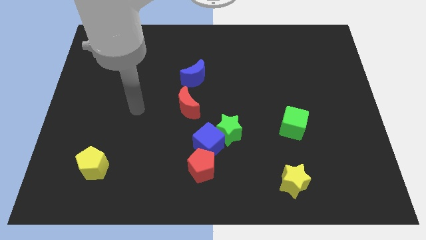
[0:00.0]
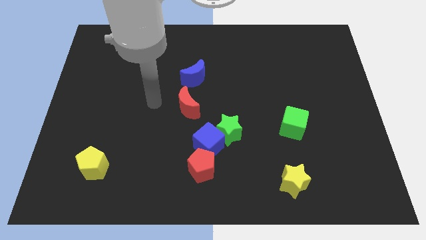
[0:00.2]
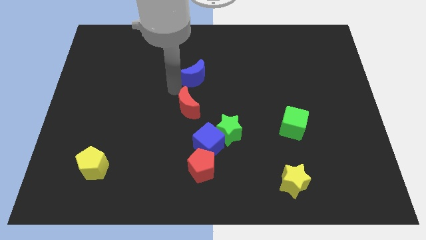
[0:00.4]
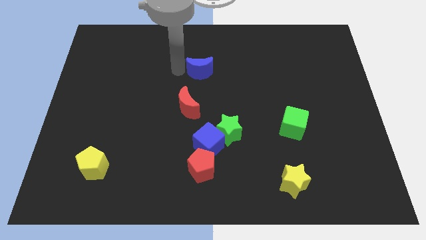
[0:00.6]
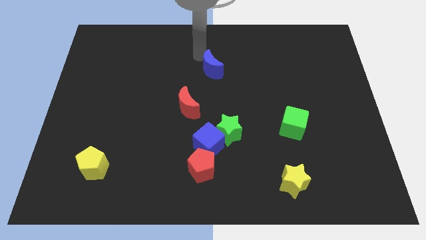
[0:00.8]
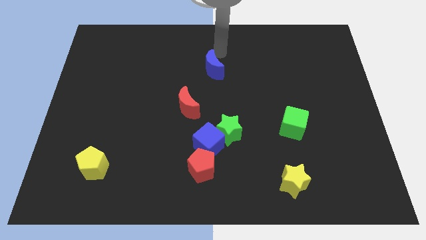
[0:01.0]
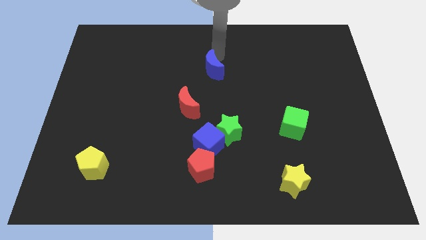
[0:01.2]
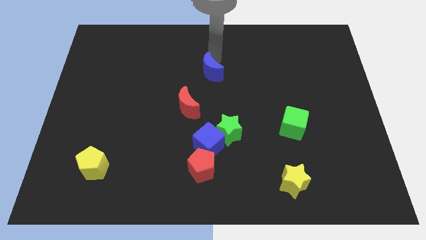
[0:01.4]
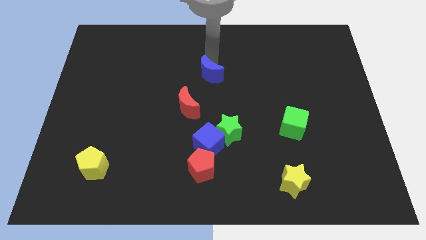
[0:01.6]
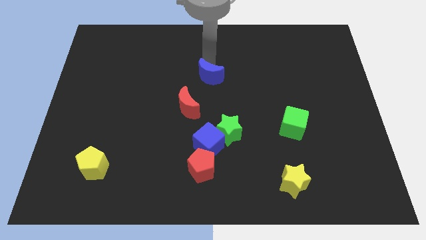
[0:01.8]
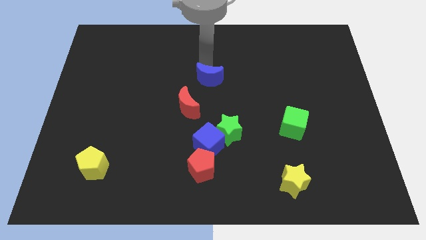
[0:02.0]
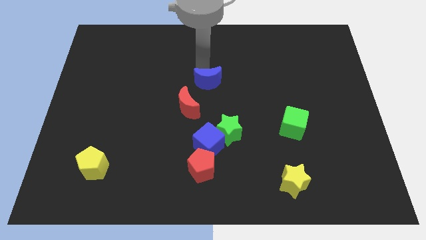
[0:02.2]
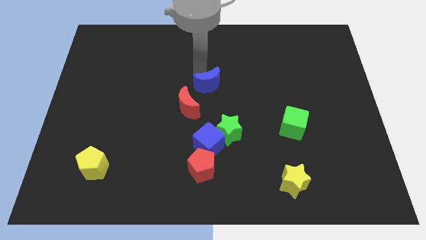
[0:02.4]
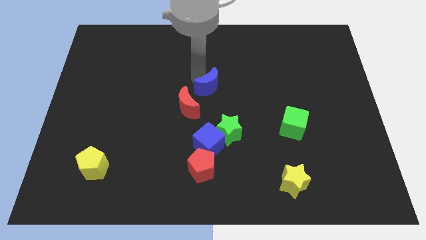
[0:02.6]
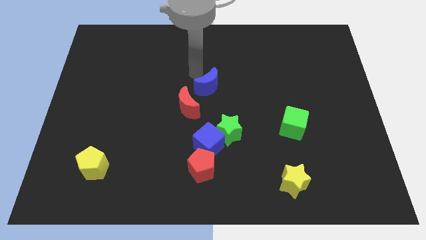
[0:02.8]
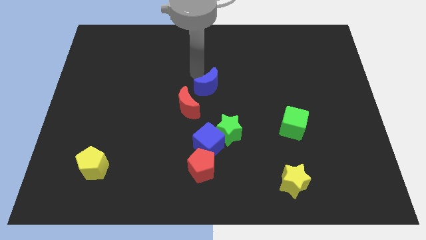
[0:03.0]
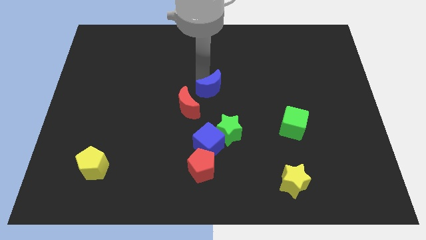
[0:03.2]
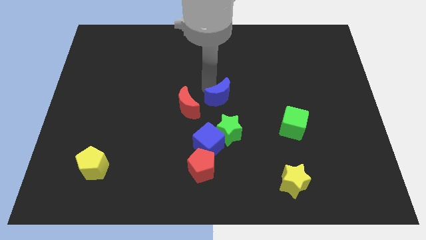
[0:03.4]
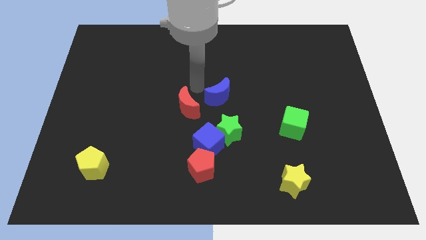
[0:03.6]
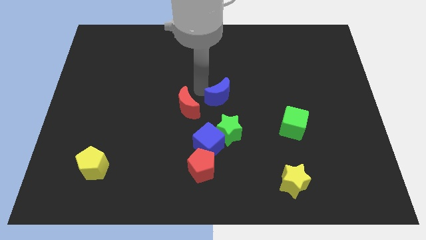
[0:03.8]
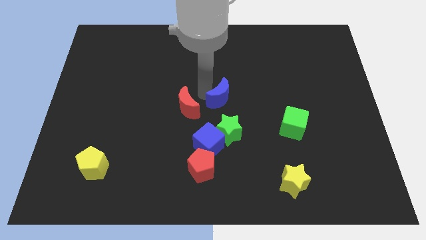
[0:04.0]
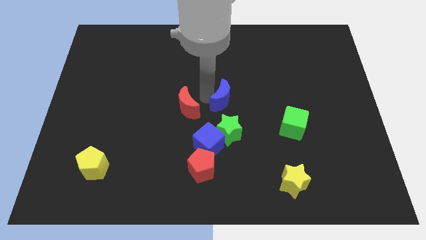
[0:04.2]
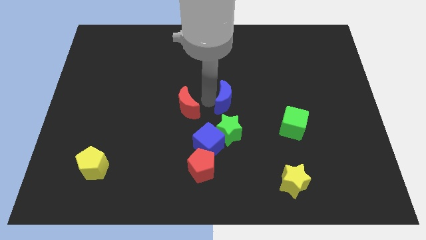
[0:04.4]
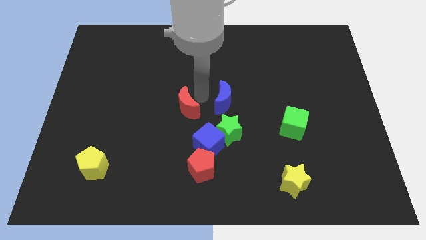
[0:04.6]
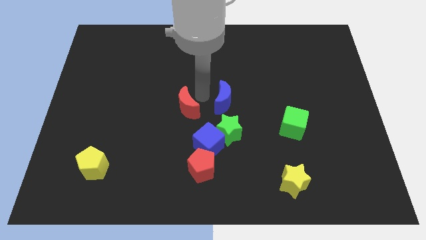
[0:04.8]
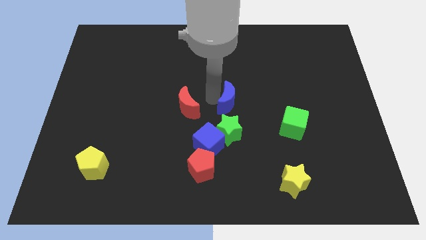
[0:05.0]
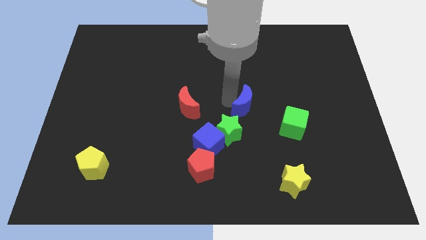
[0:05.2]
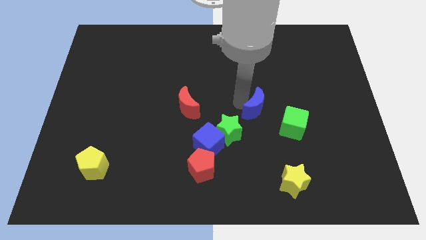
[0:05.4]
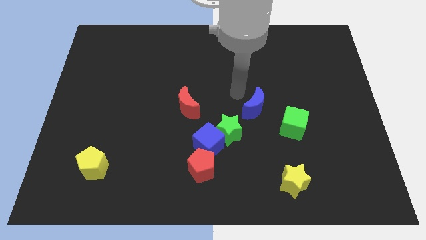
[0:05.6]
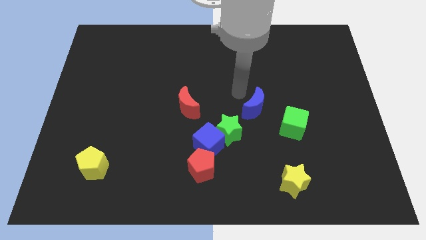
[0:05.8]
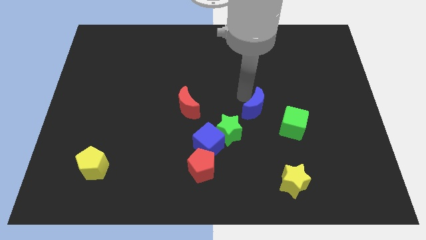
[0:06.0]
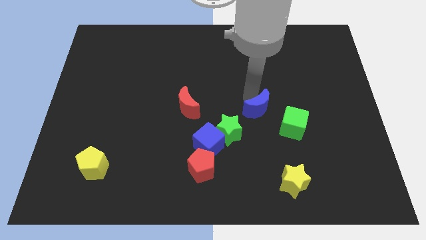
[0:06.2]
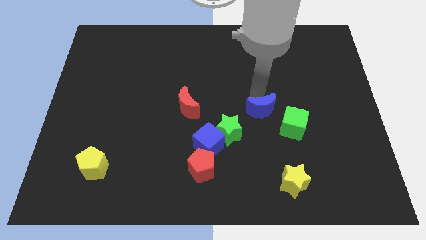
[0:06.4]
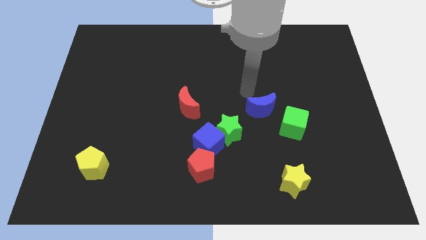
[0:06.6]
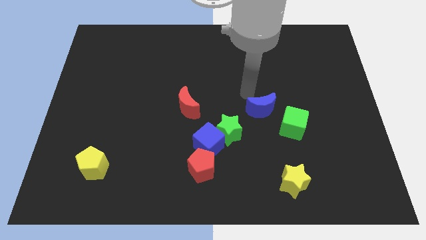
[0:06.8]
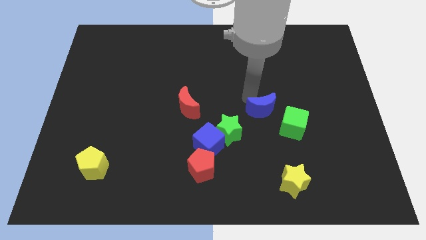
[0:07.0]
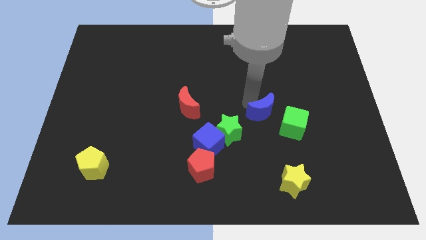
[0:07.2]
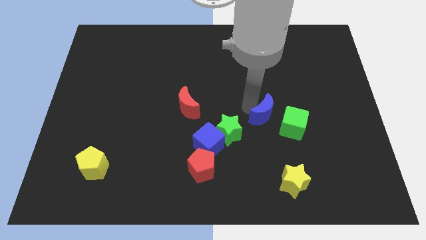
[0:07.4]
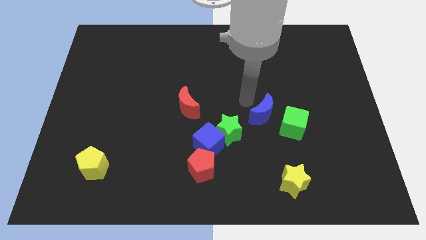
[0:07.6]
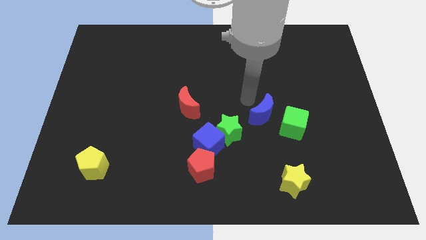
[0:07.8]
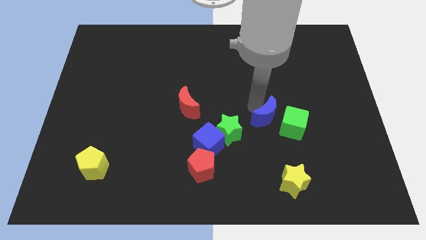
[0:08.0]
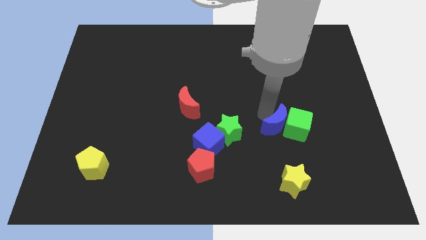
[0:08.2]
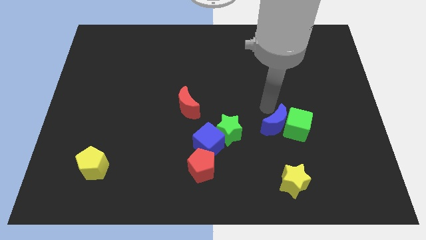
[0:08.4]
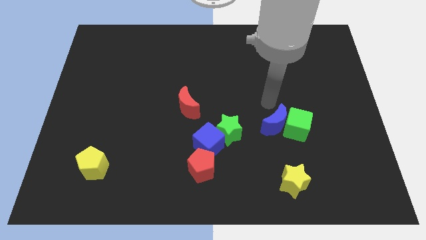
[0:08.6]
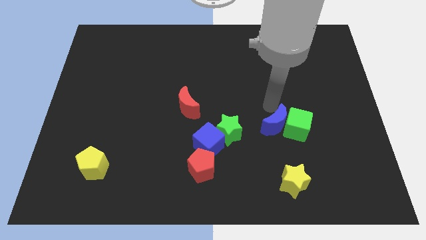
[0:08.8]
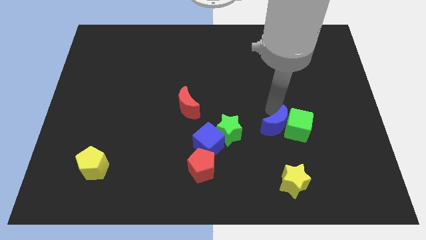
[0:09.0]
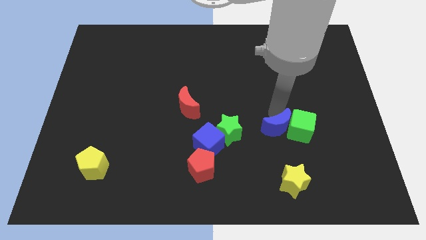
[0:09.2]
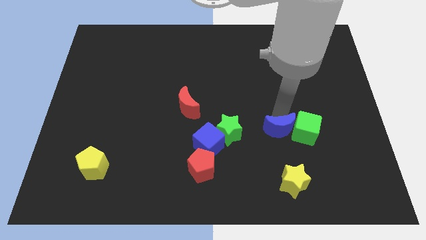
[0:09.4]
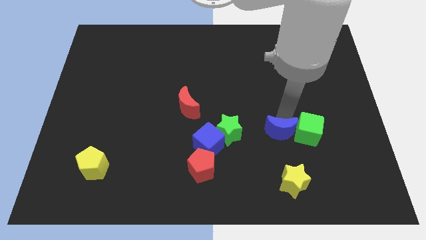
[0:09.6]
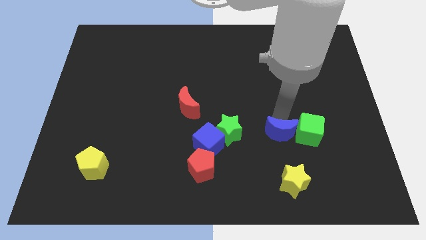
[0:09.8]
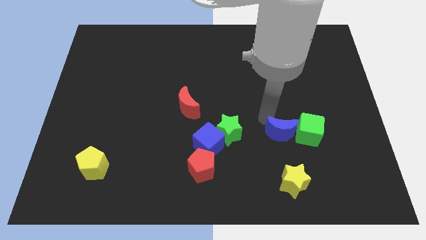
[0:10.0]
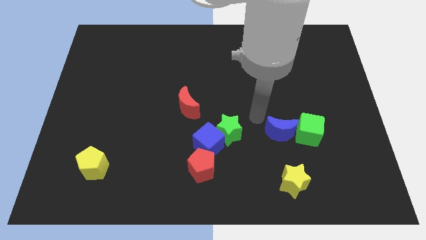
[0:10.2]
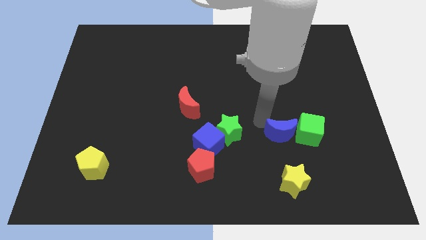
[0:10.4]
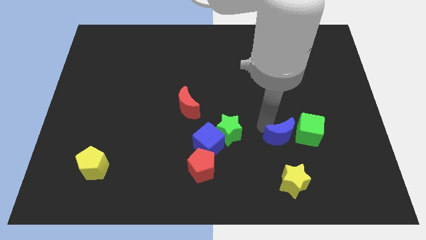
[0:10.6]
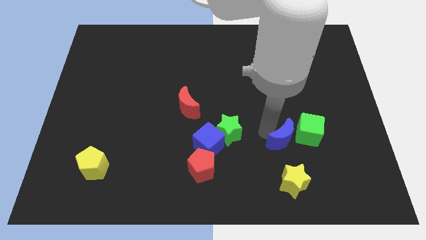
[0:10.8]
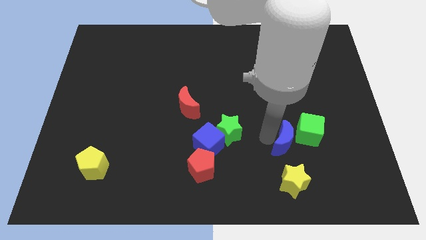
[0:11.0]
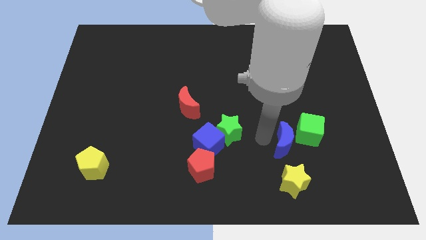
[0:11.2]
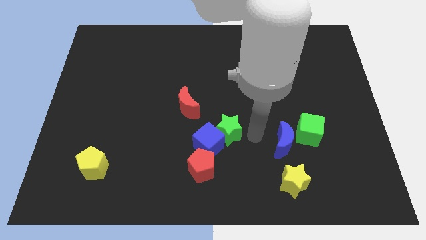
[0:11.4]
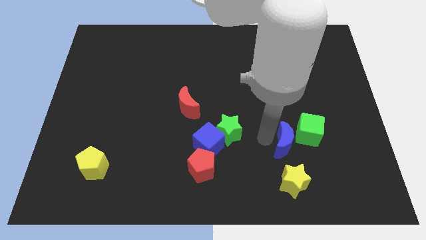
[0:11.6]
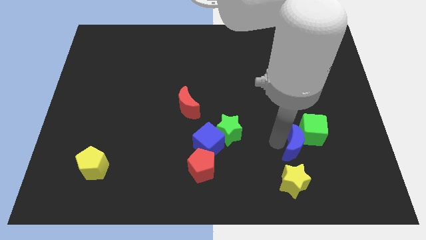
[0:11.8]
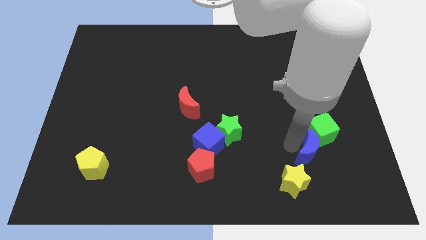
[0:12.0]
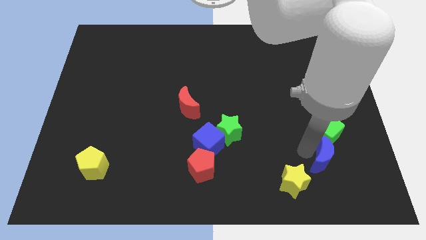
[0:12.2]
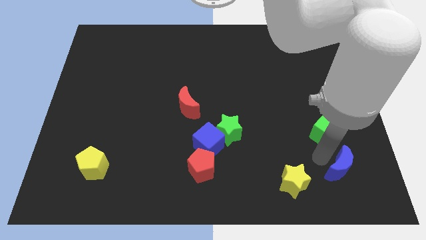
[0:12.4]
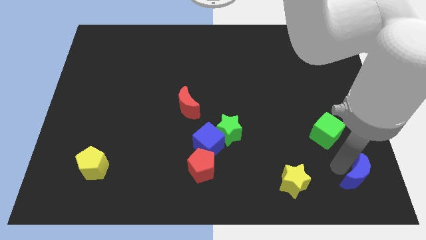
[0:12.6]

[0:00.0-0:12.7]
move the blue moon to the bottom right
